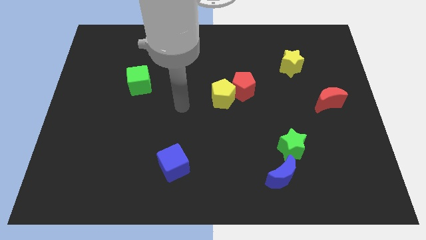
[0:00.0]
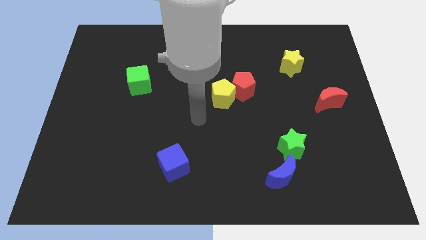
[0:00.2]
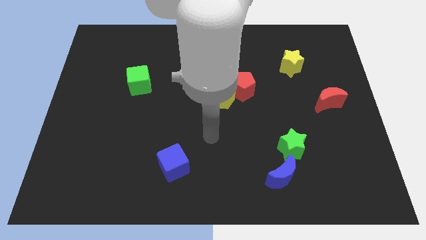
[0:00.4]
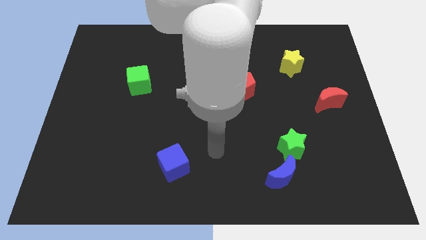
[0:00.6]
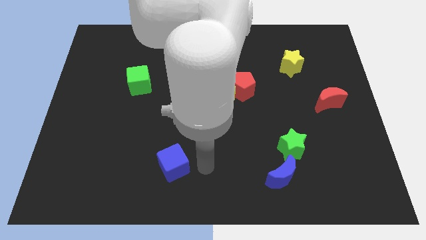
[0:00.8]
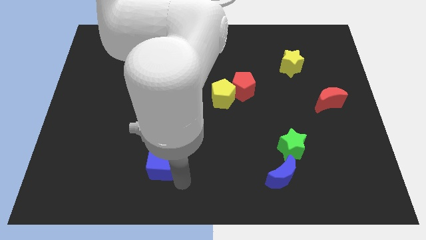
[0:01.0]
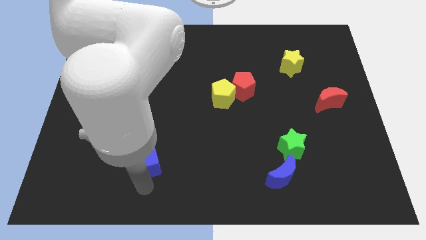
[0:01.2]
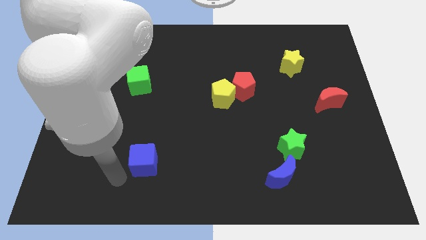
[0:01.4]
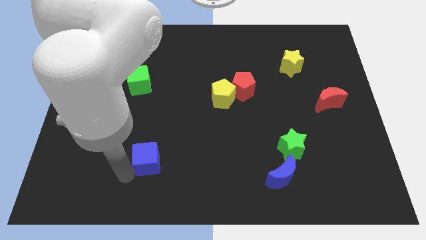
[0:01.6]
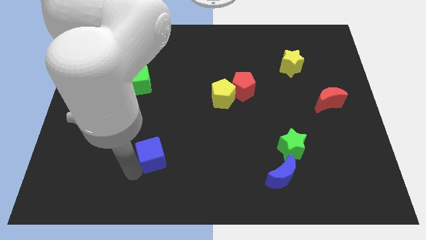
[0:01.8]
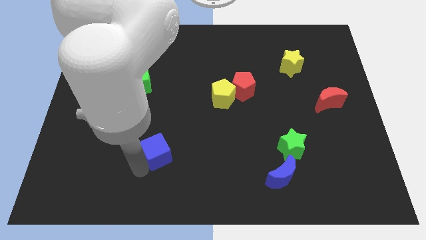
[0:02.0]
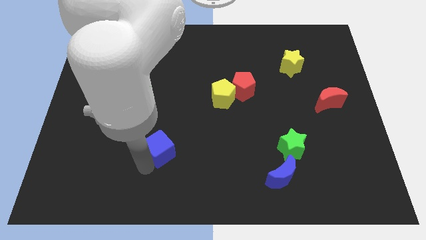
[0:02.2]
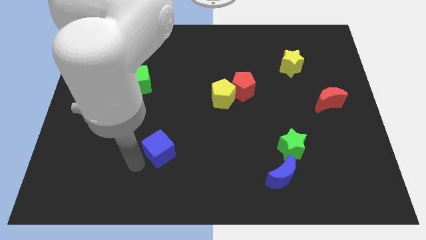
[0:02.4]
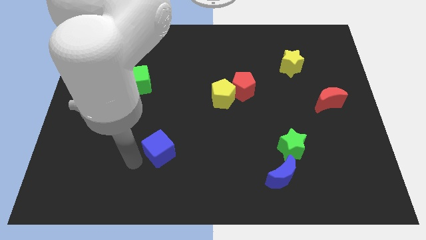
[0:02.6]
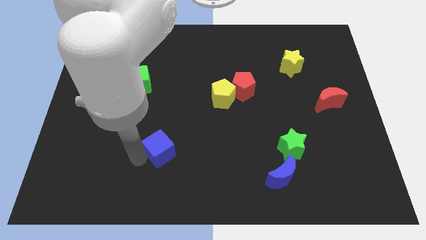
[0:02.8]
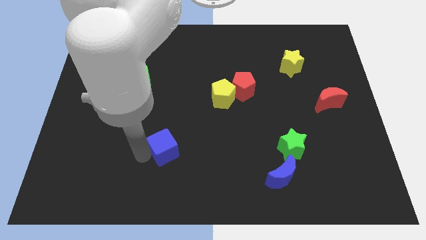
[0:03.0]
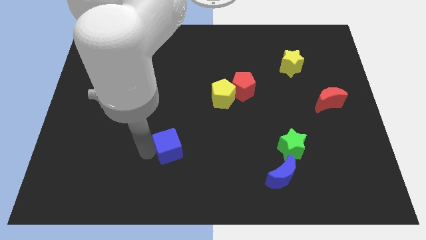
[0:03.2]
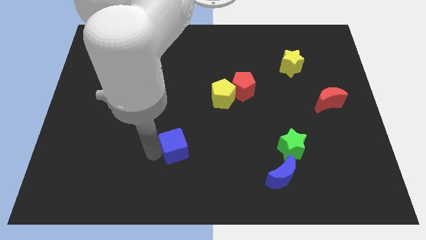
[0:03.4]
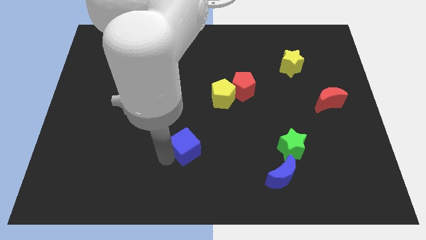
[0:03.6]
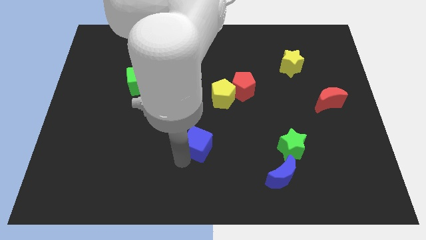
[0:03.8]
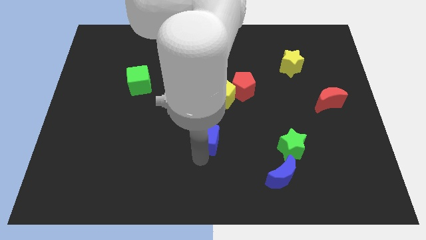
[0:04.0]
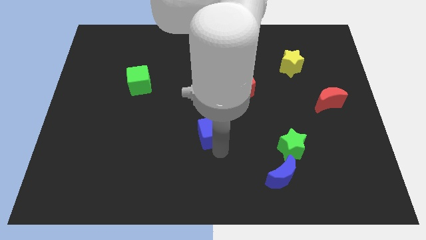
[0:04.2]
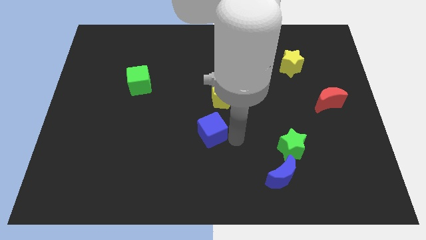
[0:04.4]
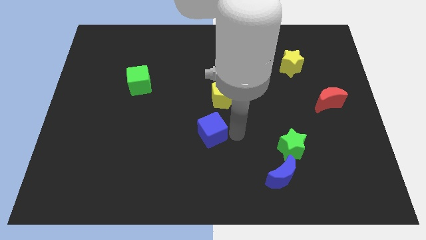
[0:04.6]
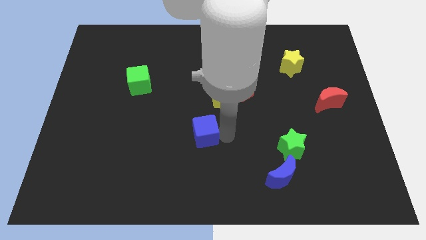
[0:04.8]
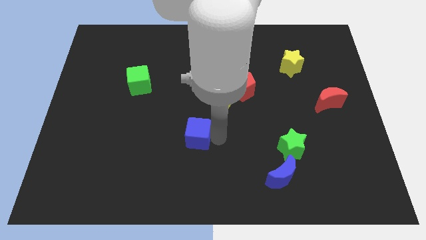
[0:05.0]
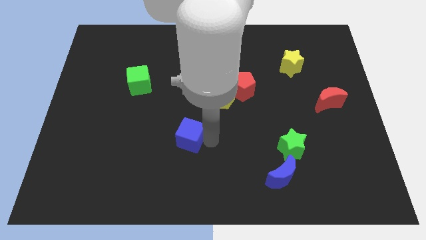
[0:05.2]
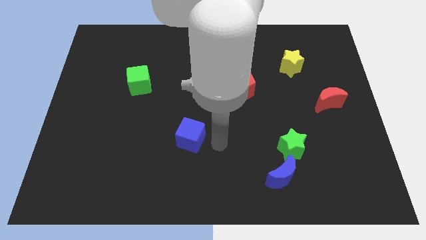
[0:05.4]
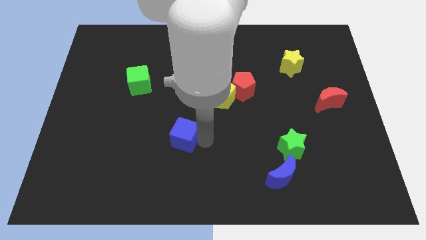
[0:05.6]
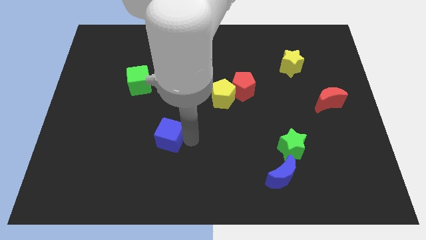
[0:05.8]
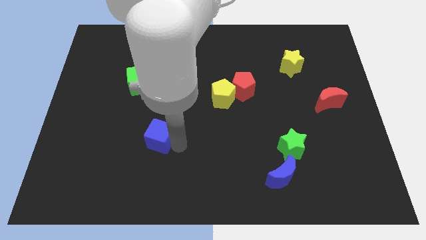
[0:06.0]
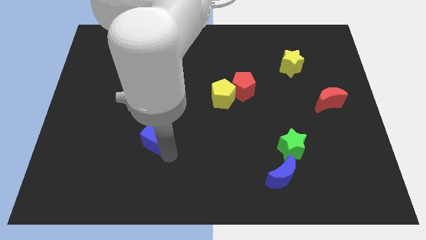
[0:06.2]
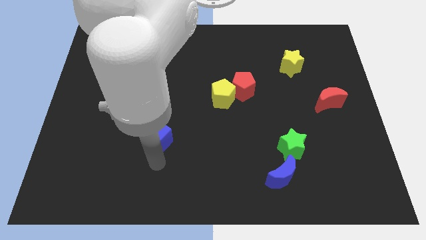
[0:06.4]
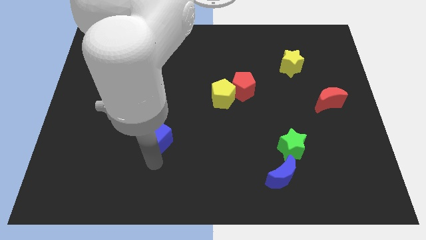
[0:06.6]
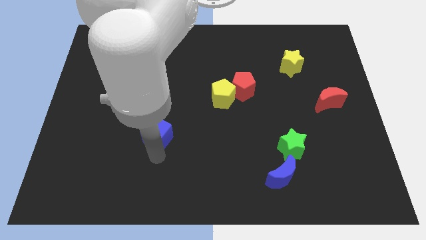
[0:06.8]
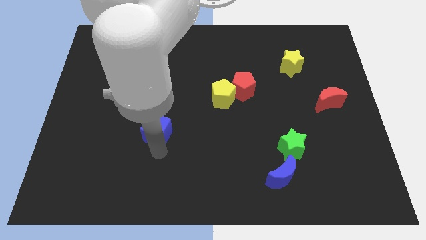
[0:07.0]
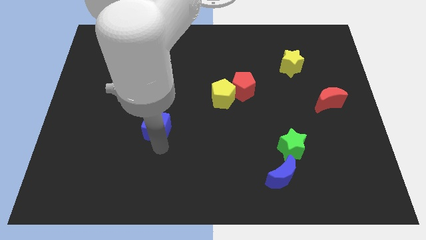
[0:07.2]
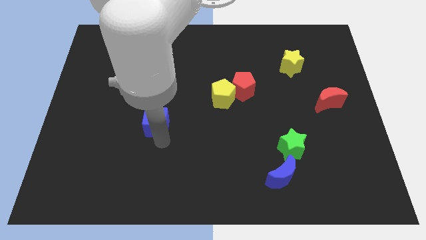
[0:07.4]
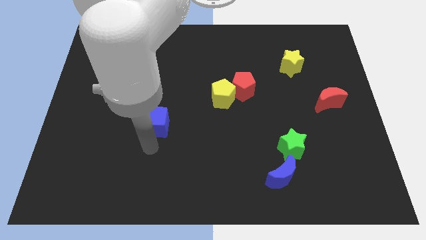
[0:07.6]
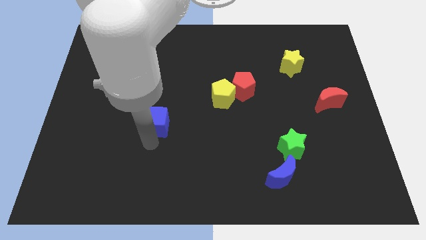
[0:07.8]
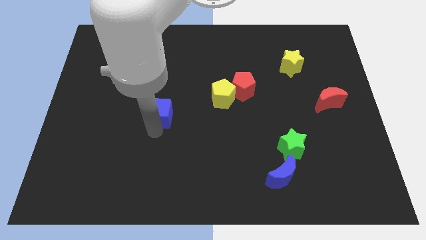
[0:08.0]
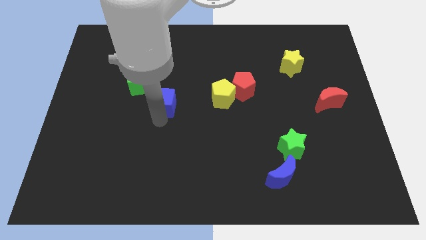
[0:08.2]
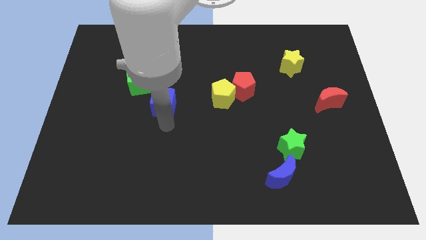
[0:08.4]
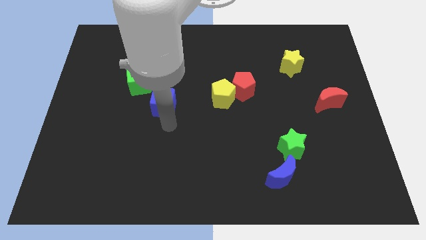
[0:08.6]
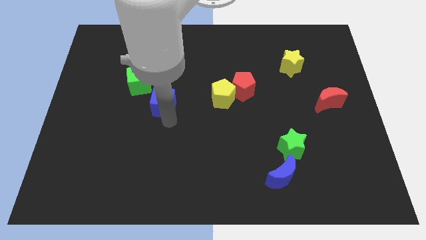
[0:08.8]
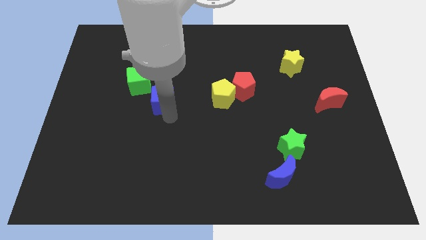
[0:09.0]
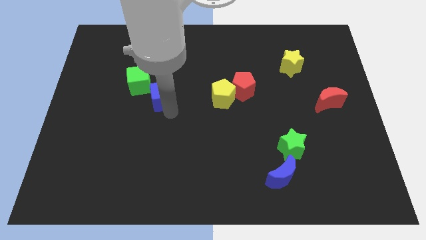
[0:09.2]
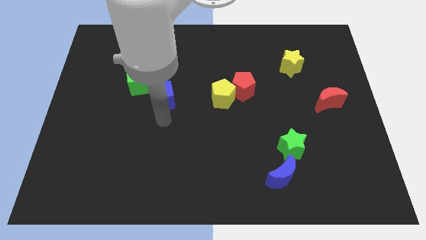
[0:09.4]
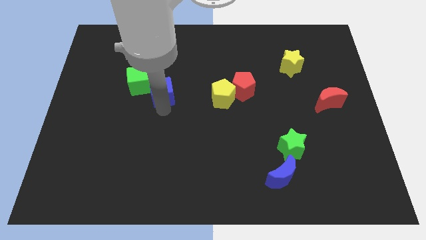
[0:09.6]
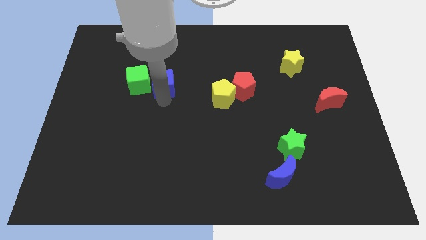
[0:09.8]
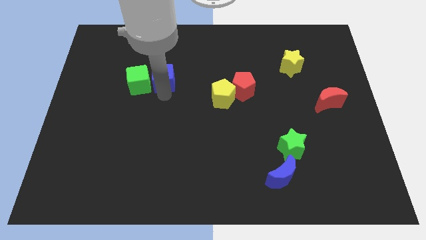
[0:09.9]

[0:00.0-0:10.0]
move the blue cube to the top right of the green cube

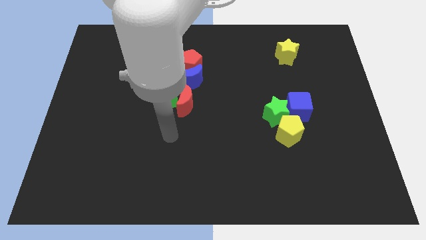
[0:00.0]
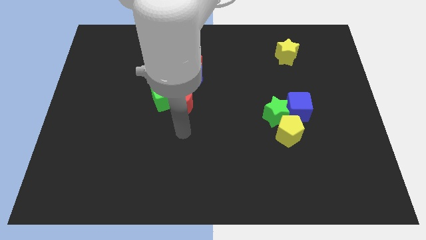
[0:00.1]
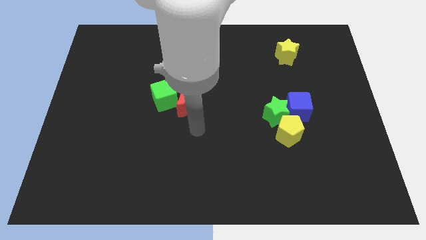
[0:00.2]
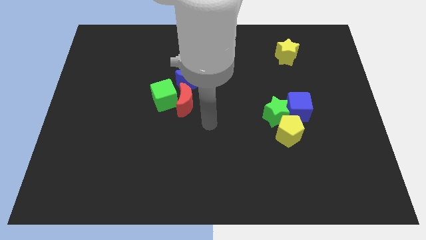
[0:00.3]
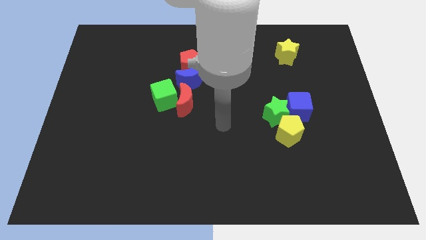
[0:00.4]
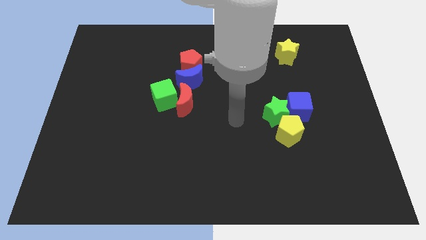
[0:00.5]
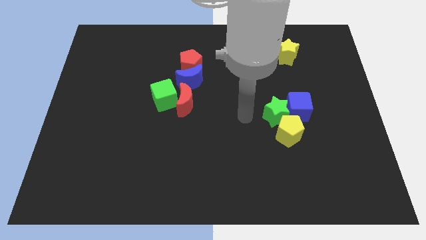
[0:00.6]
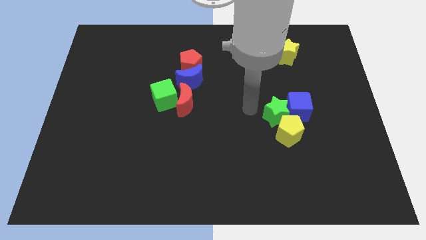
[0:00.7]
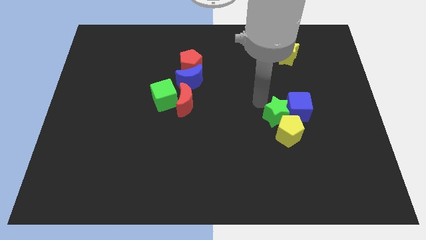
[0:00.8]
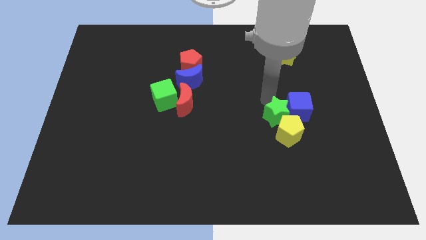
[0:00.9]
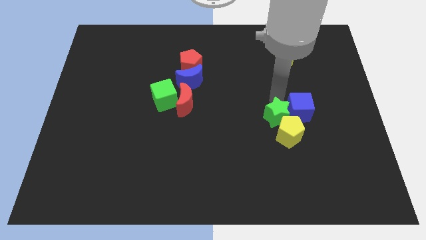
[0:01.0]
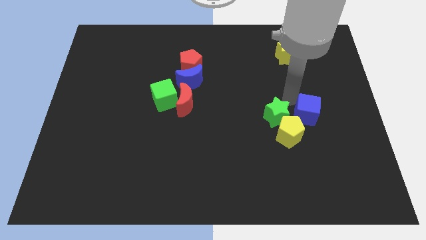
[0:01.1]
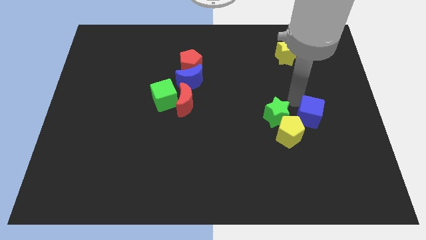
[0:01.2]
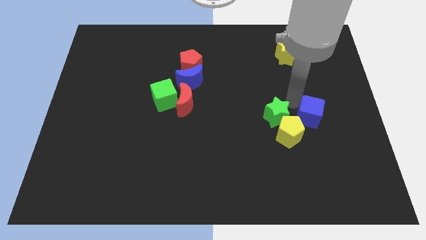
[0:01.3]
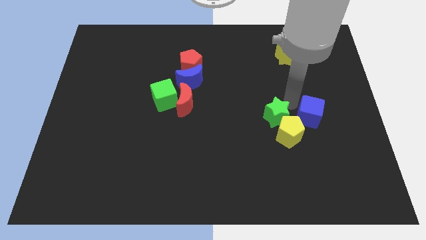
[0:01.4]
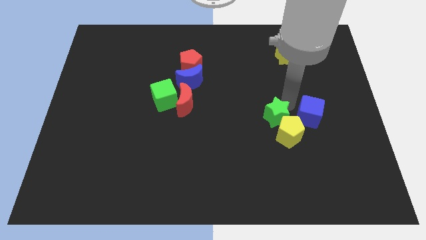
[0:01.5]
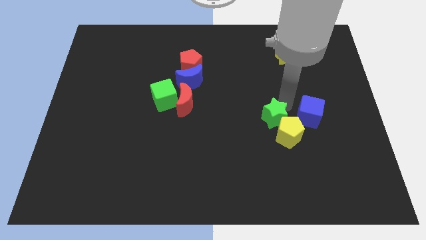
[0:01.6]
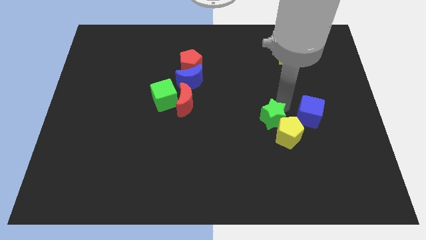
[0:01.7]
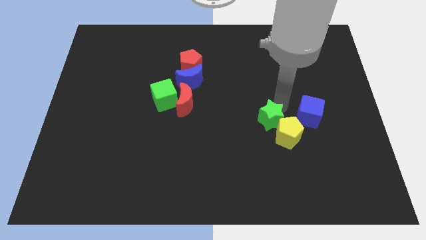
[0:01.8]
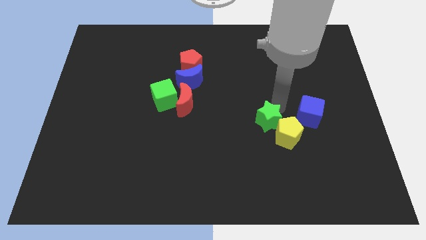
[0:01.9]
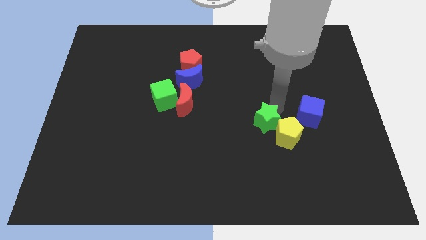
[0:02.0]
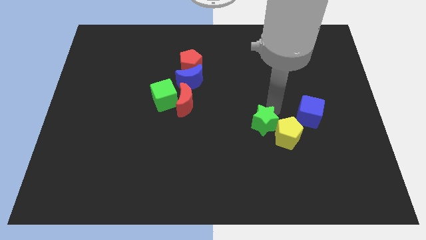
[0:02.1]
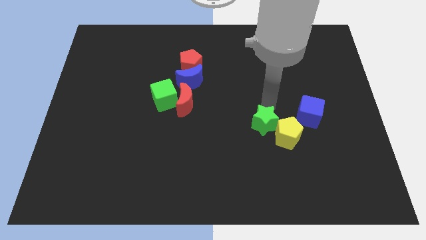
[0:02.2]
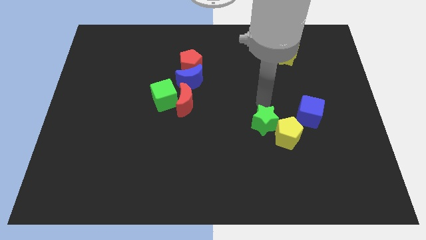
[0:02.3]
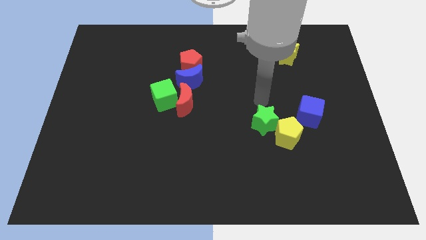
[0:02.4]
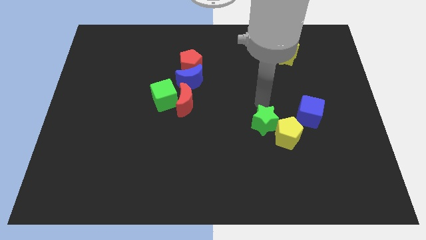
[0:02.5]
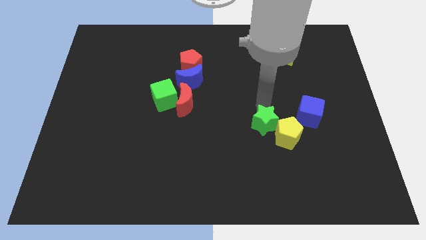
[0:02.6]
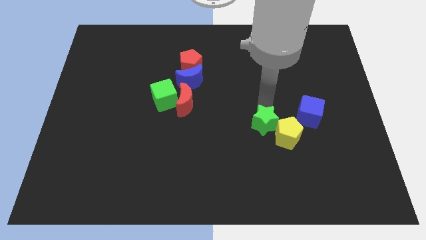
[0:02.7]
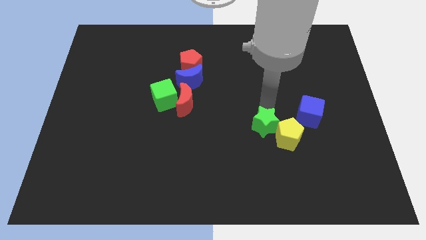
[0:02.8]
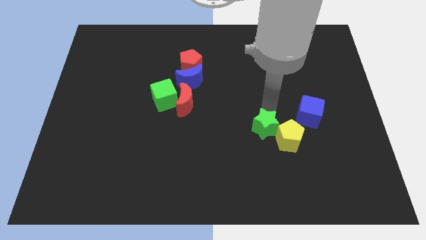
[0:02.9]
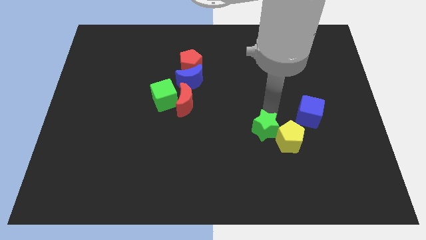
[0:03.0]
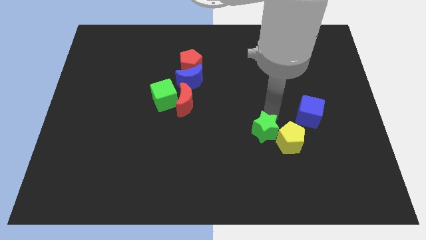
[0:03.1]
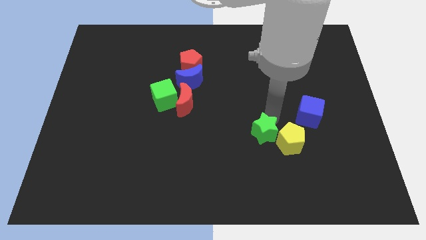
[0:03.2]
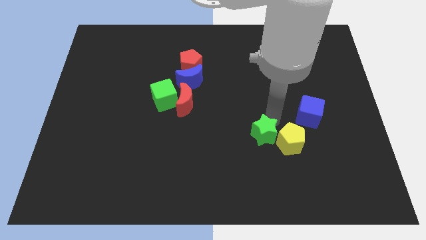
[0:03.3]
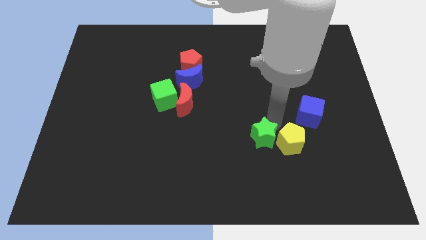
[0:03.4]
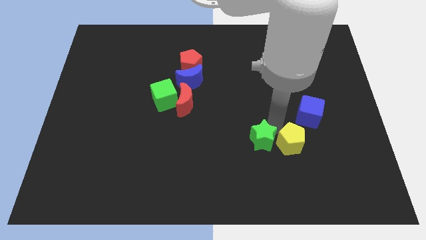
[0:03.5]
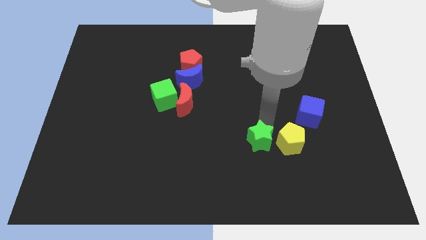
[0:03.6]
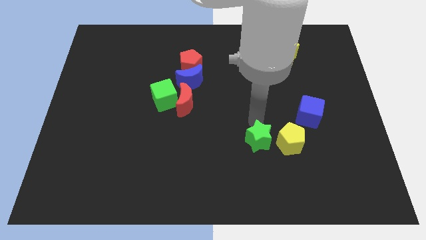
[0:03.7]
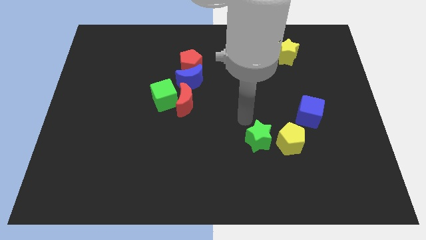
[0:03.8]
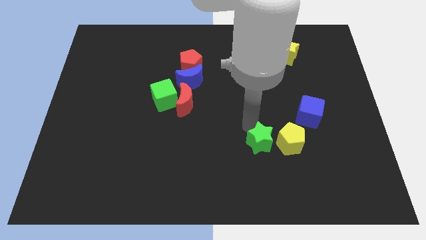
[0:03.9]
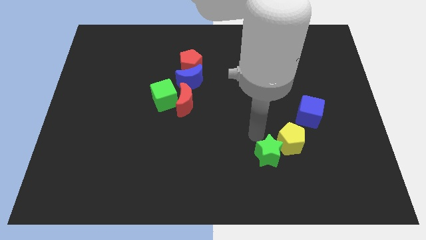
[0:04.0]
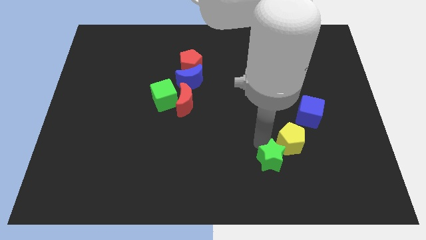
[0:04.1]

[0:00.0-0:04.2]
push the green star to the bottom side of the yellow pentagon
